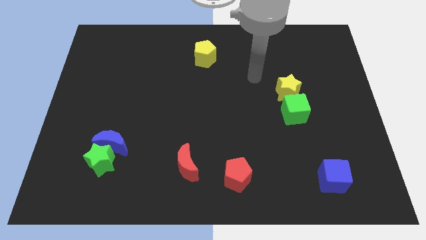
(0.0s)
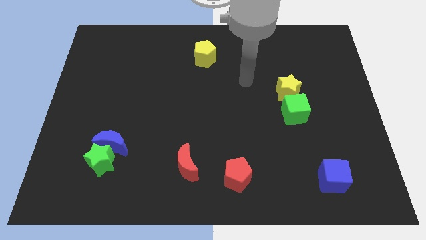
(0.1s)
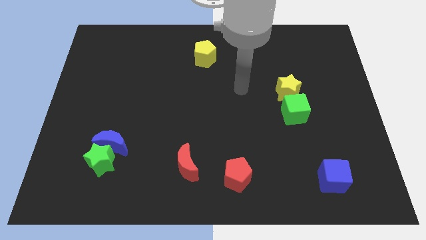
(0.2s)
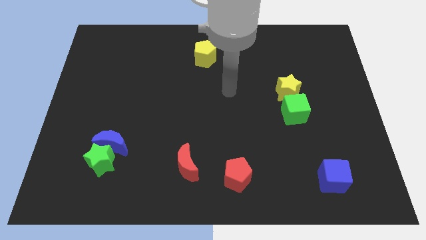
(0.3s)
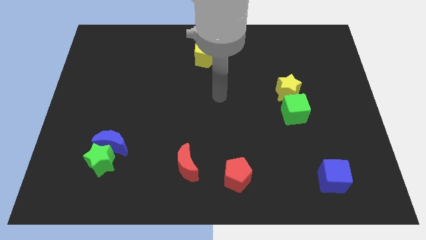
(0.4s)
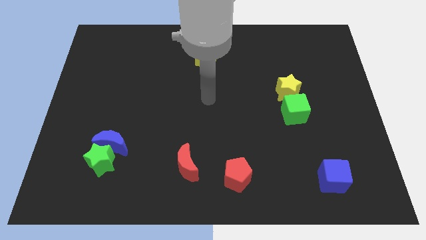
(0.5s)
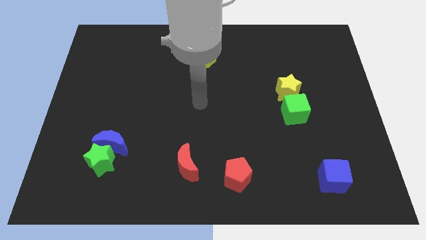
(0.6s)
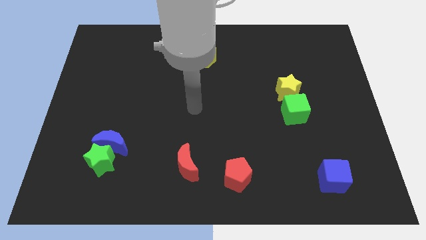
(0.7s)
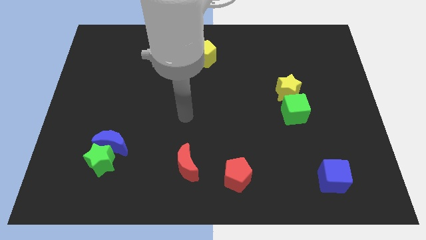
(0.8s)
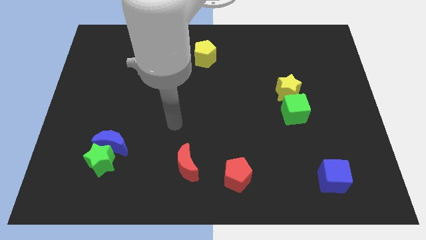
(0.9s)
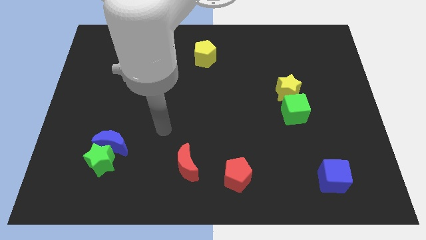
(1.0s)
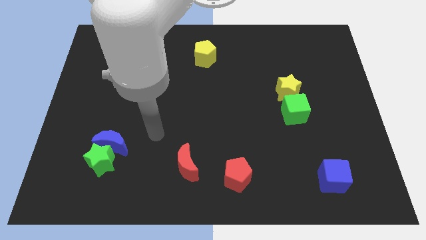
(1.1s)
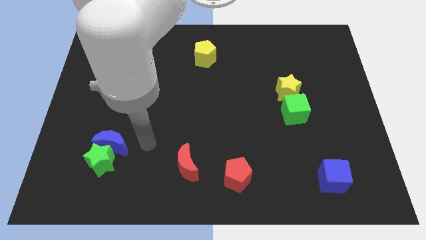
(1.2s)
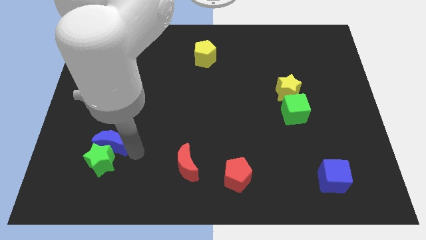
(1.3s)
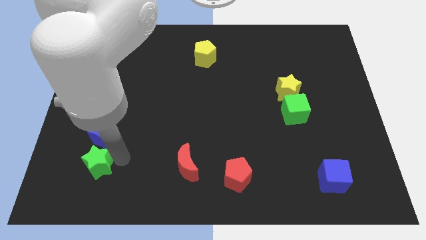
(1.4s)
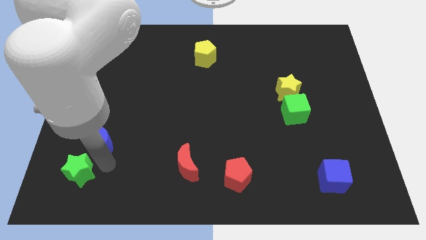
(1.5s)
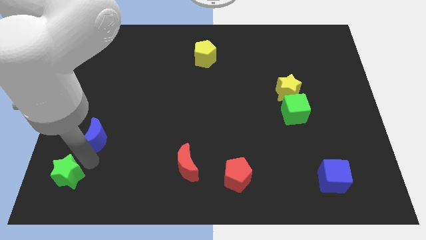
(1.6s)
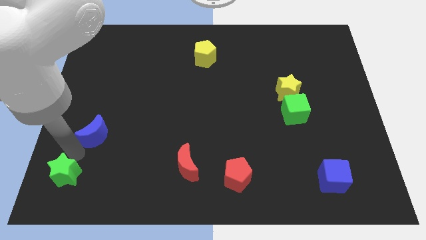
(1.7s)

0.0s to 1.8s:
separate the blue moon from the green star

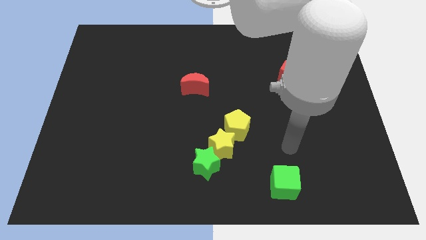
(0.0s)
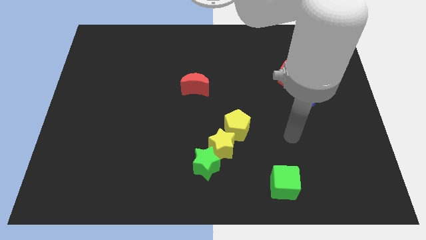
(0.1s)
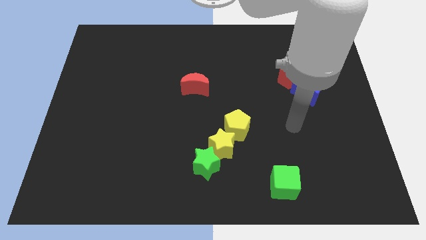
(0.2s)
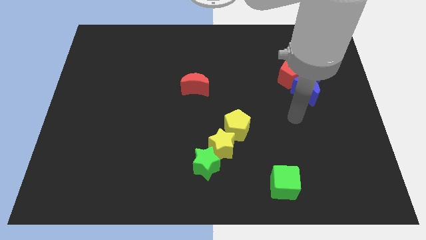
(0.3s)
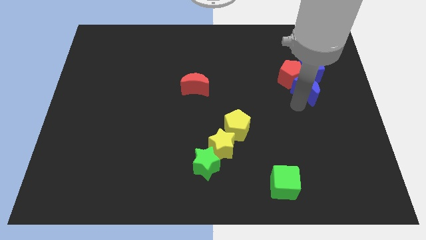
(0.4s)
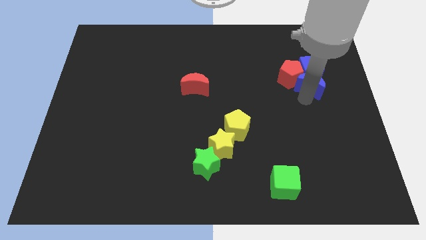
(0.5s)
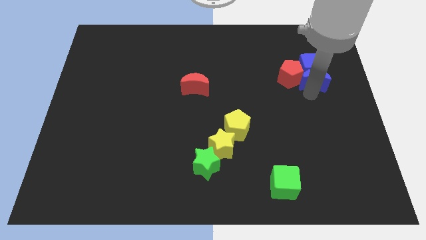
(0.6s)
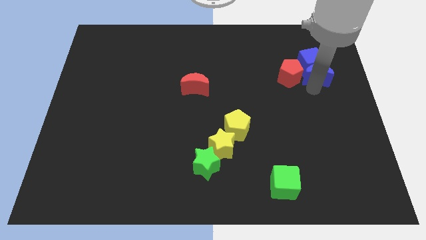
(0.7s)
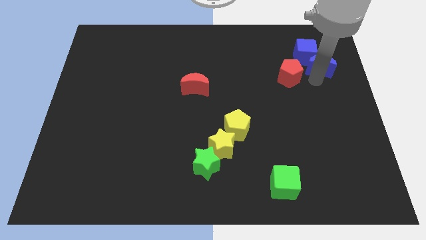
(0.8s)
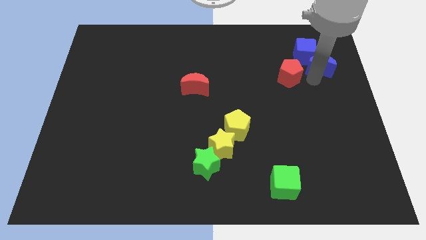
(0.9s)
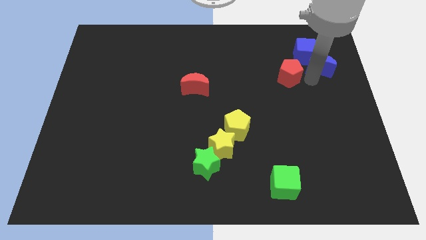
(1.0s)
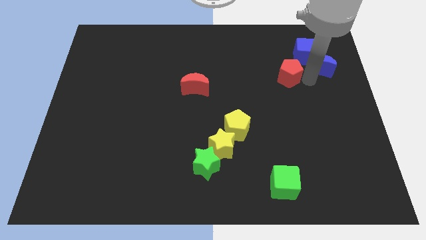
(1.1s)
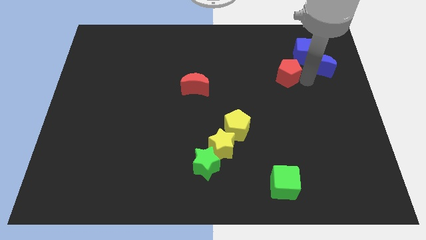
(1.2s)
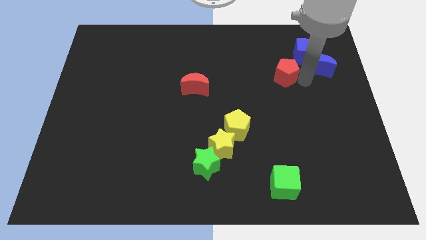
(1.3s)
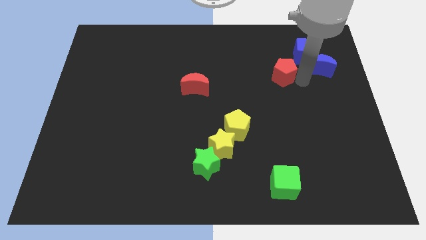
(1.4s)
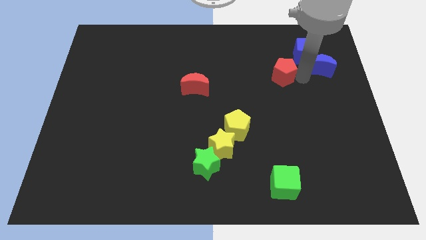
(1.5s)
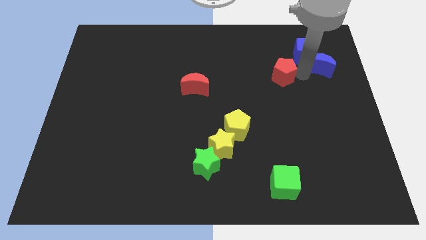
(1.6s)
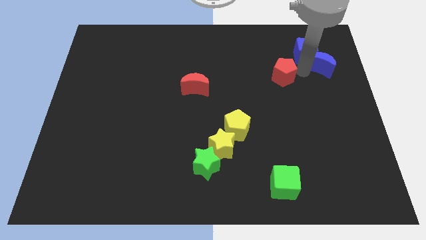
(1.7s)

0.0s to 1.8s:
move the red pentagon away from the blue cube and blue moon

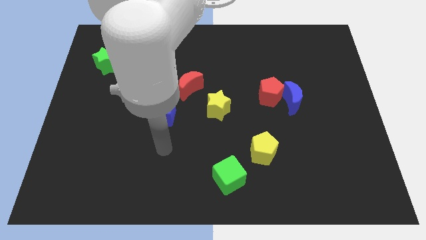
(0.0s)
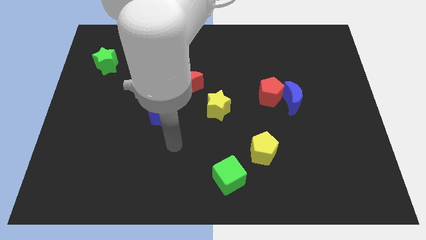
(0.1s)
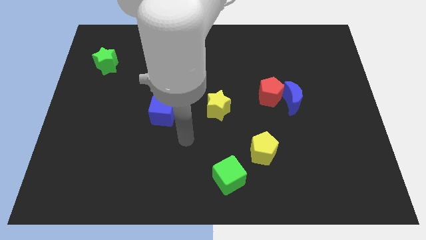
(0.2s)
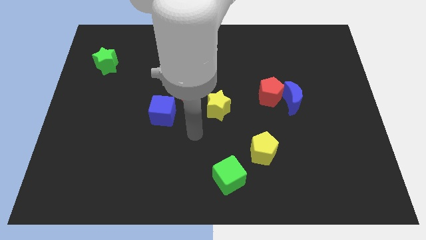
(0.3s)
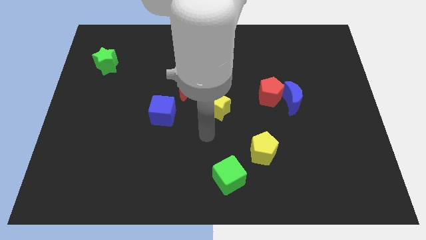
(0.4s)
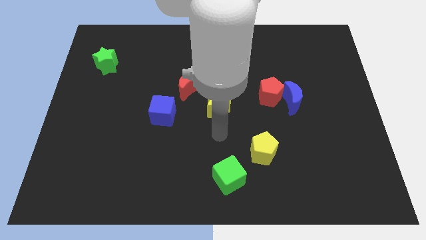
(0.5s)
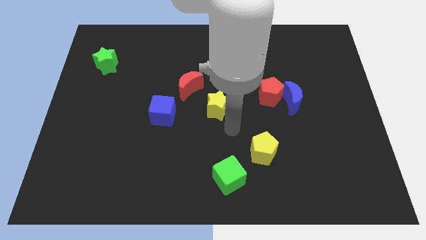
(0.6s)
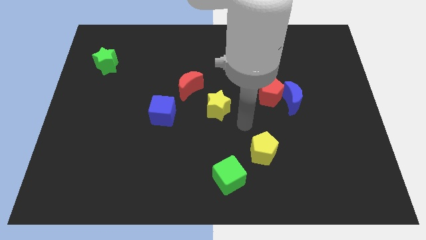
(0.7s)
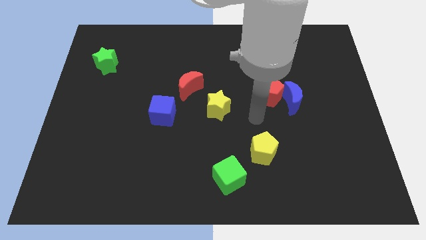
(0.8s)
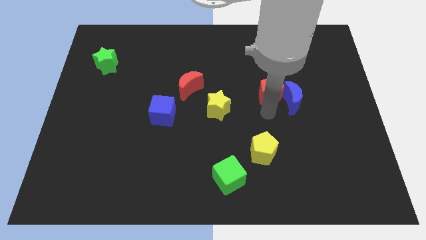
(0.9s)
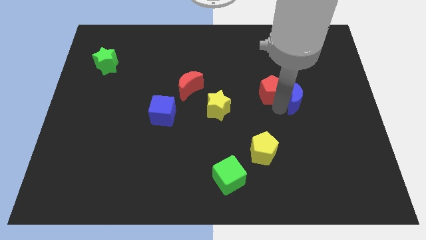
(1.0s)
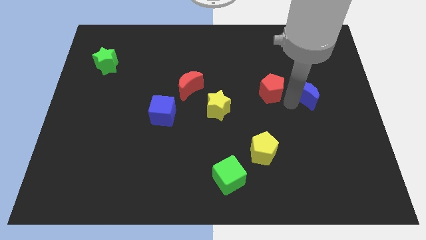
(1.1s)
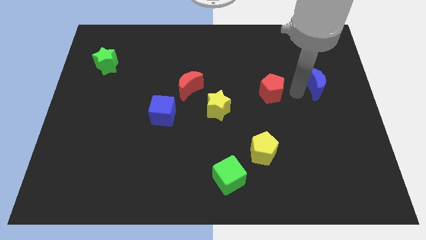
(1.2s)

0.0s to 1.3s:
pull the red pentagon apart from the blue moon

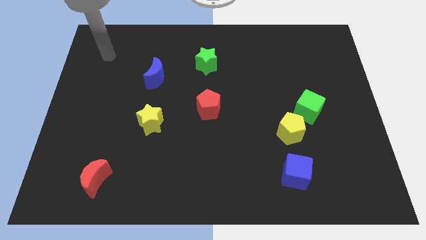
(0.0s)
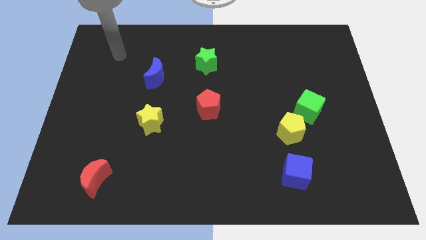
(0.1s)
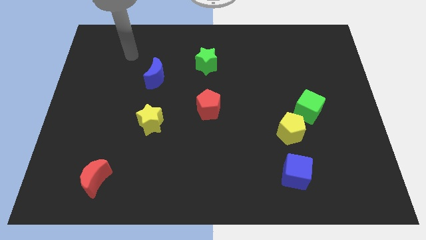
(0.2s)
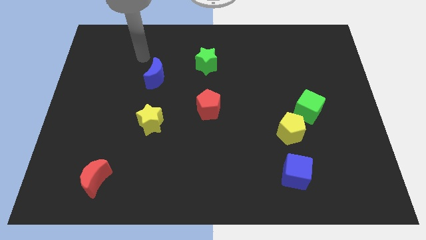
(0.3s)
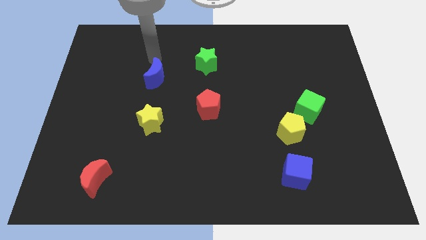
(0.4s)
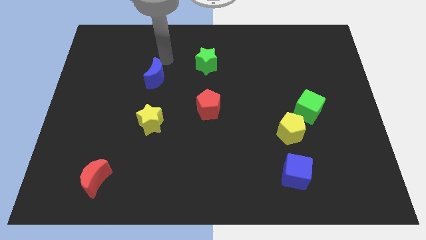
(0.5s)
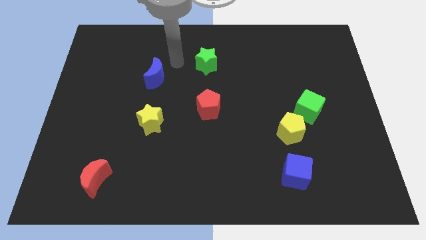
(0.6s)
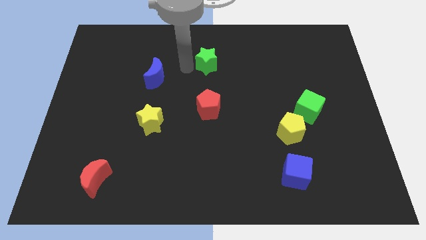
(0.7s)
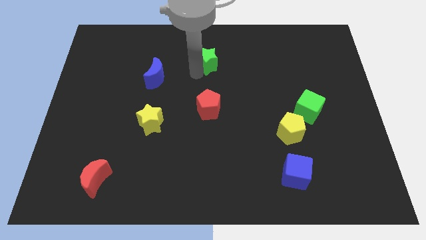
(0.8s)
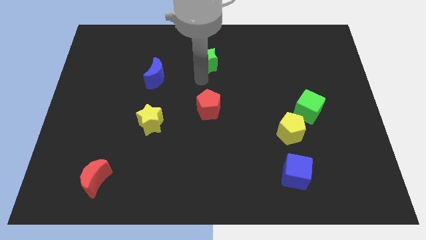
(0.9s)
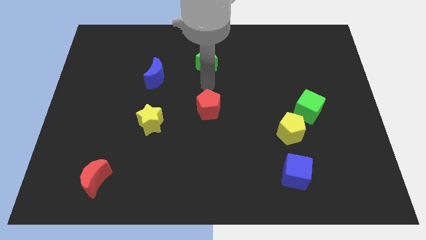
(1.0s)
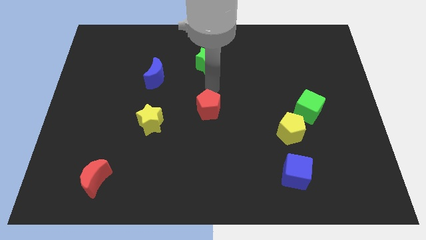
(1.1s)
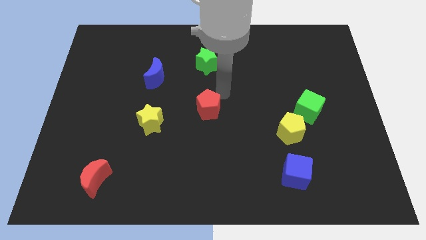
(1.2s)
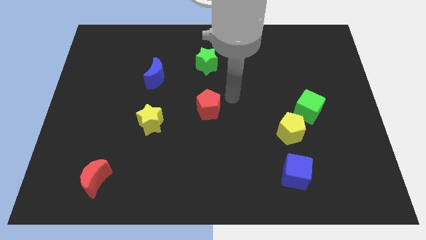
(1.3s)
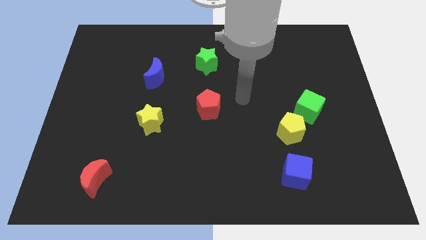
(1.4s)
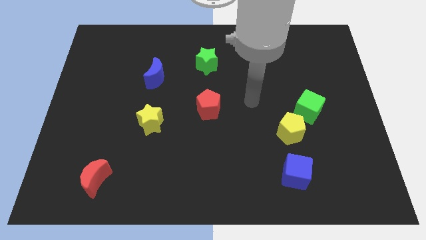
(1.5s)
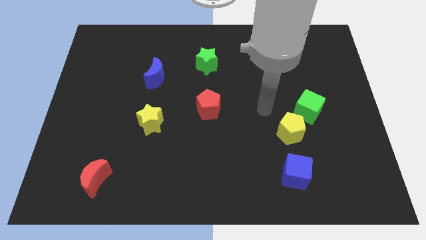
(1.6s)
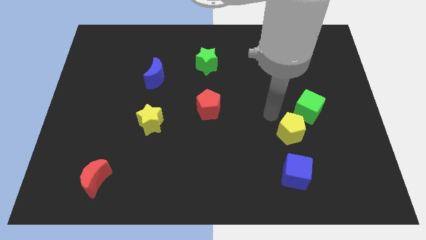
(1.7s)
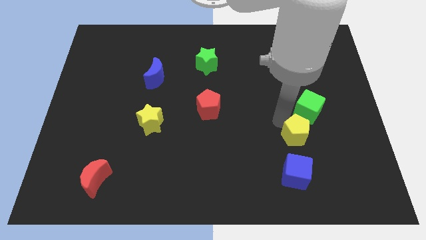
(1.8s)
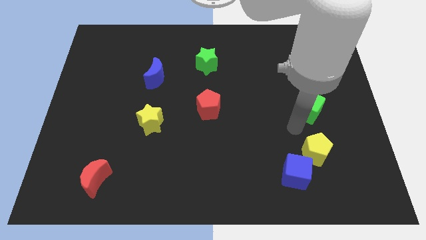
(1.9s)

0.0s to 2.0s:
separate the green cube from the yellow pentagon

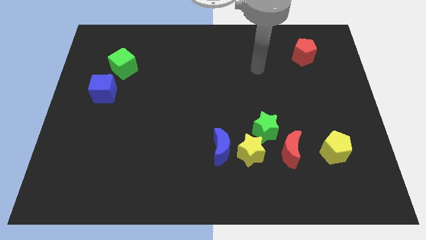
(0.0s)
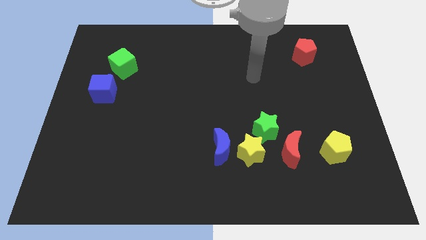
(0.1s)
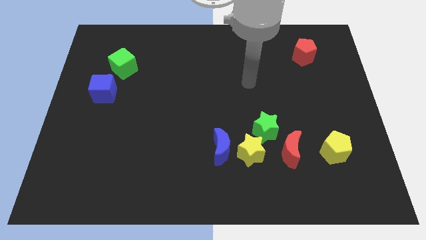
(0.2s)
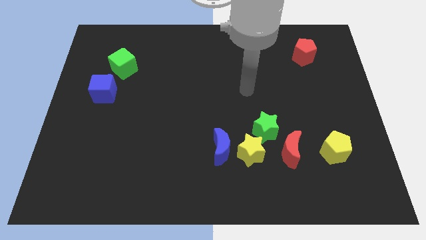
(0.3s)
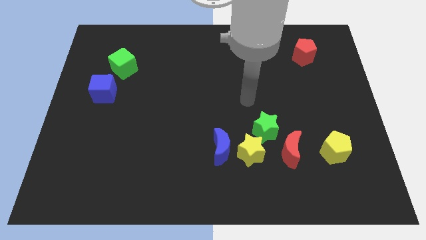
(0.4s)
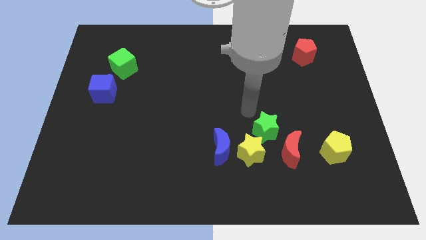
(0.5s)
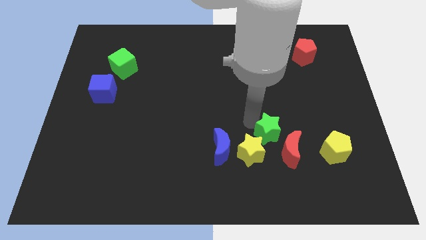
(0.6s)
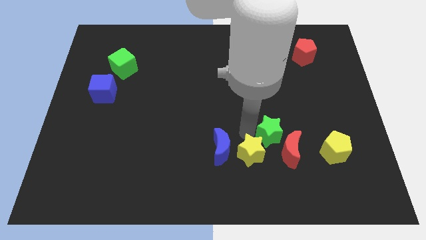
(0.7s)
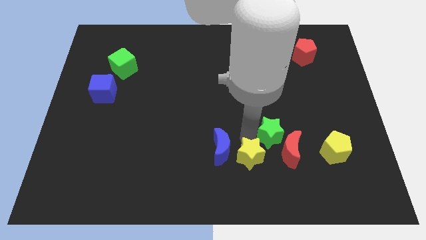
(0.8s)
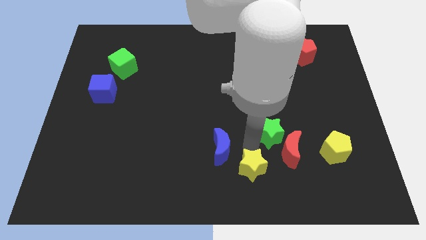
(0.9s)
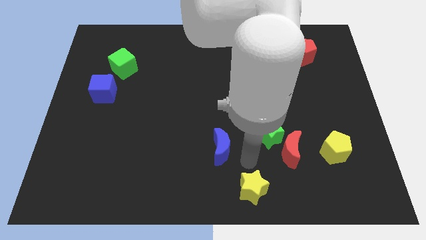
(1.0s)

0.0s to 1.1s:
pull the blue moon apart from the yellow star

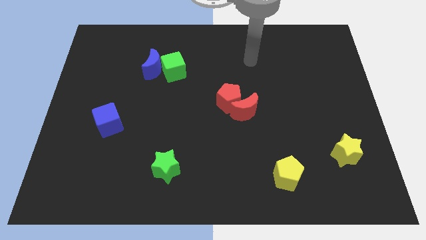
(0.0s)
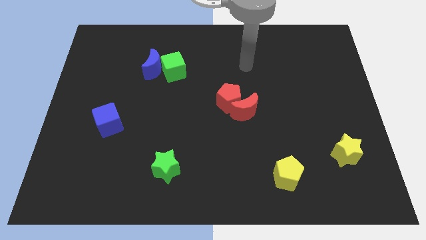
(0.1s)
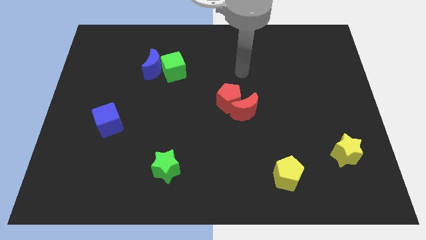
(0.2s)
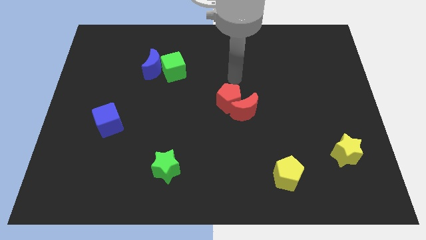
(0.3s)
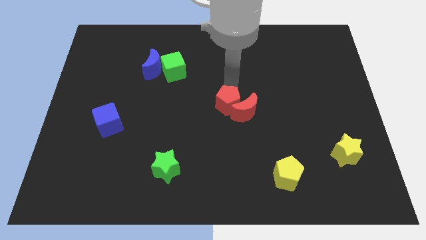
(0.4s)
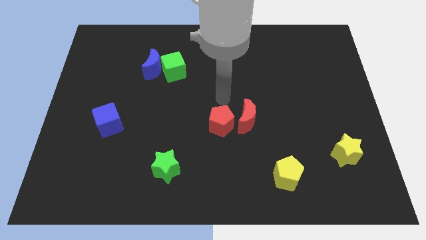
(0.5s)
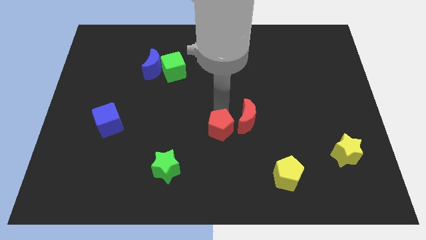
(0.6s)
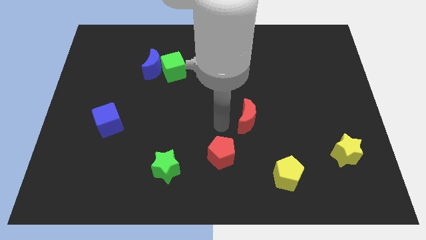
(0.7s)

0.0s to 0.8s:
pull the red moon apart from the red pentagon

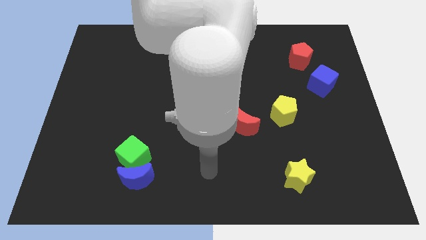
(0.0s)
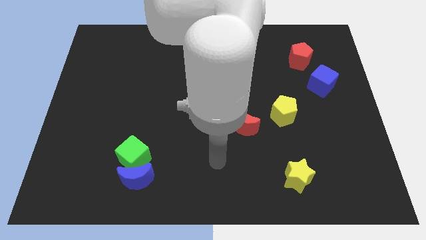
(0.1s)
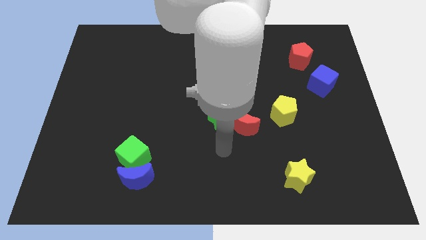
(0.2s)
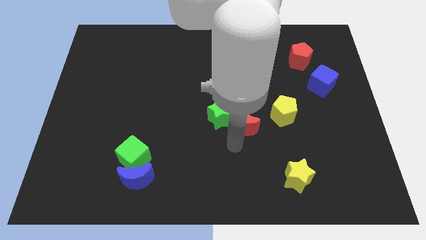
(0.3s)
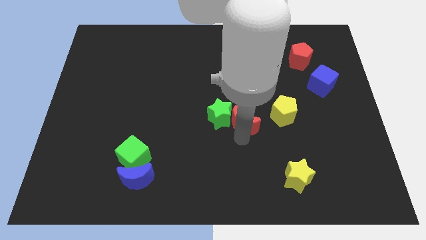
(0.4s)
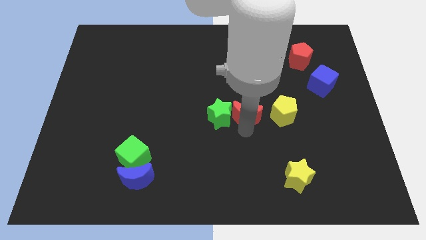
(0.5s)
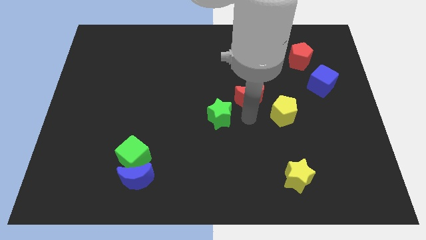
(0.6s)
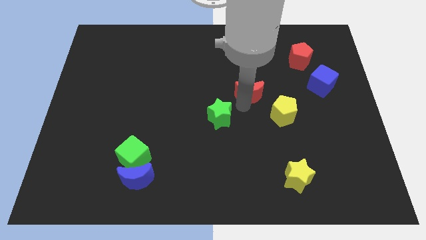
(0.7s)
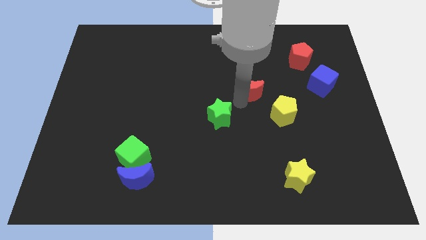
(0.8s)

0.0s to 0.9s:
separate the green star from the red moon
